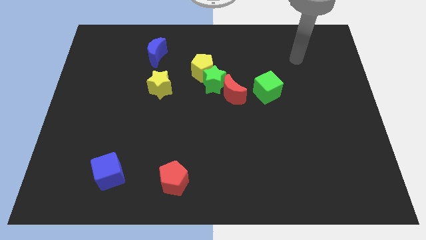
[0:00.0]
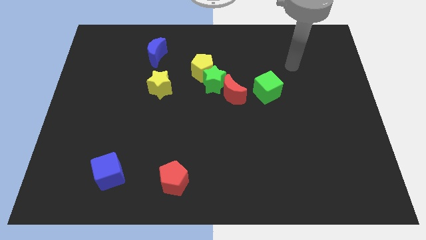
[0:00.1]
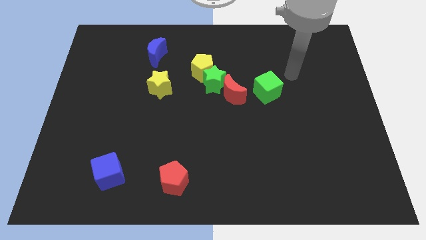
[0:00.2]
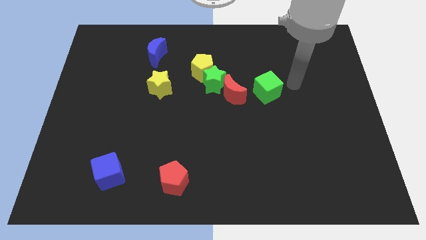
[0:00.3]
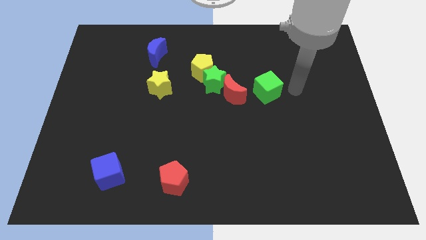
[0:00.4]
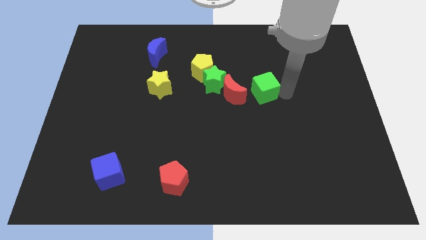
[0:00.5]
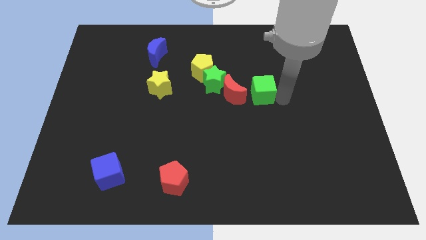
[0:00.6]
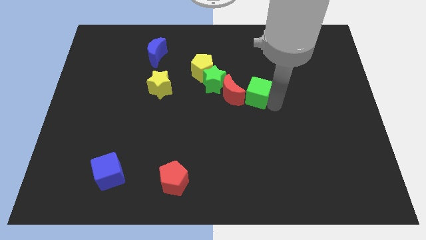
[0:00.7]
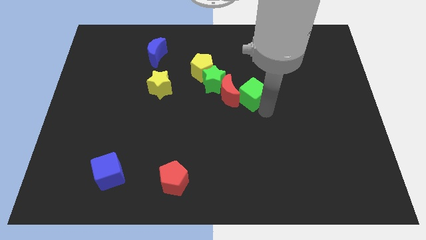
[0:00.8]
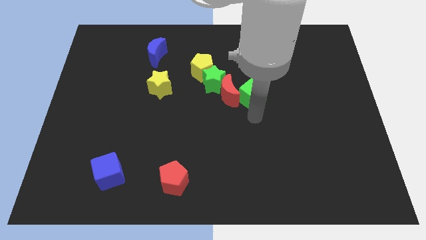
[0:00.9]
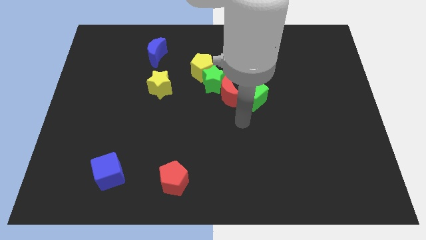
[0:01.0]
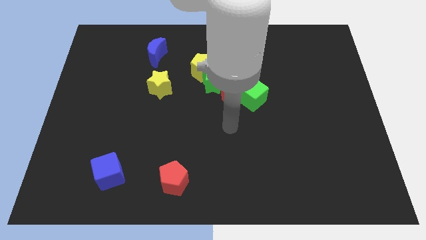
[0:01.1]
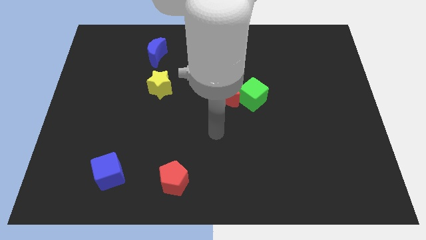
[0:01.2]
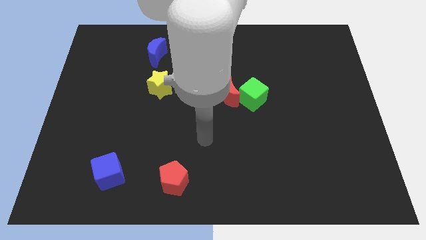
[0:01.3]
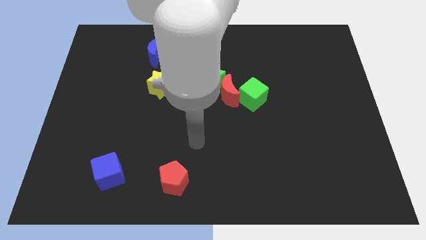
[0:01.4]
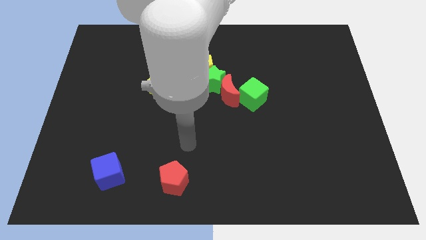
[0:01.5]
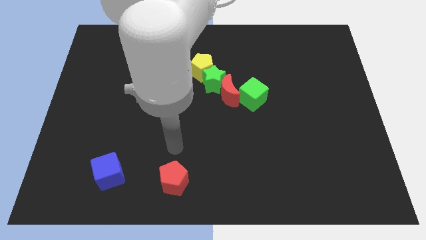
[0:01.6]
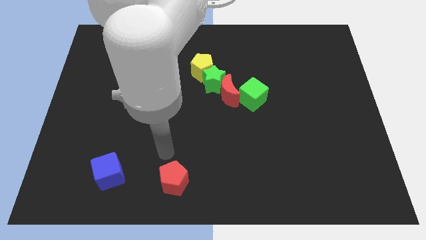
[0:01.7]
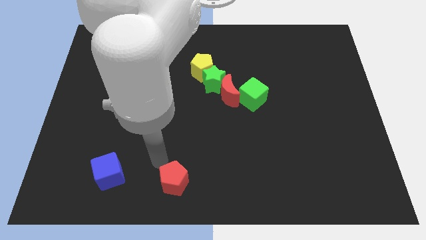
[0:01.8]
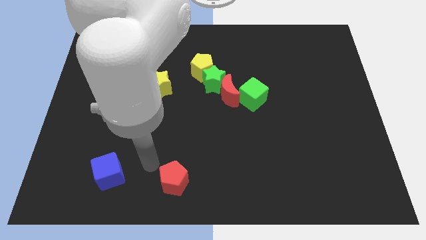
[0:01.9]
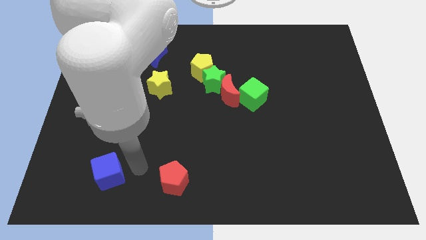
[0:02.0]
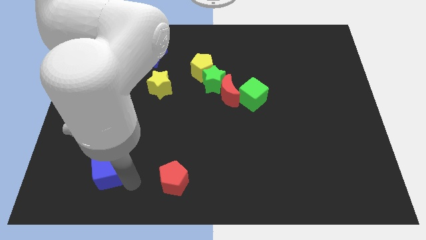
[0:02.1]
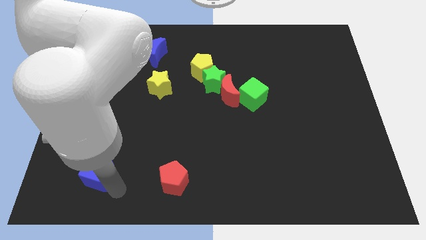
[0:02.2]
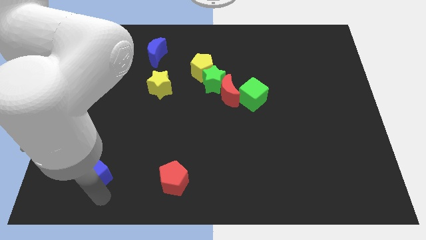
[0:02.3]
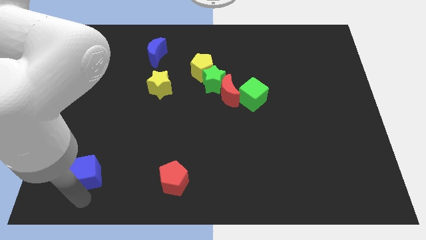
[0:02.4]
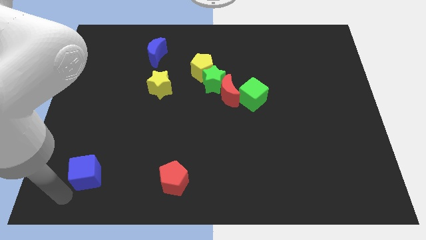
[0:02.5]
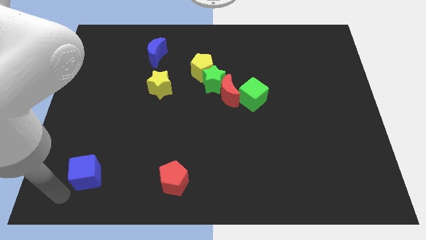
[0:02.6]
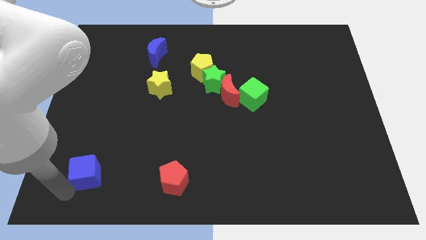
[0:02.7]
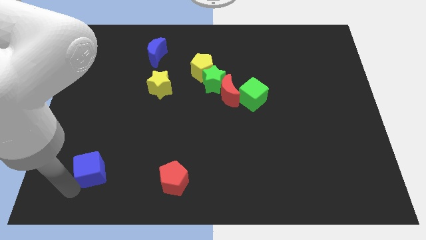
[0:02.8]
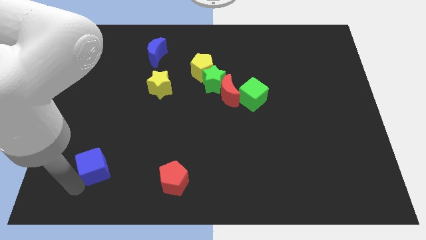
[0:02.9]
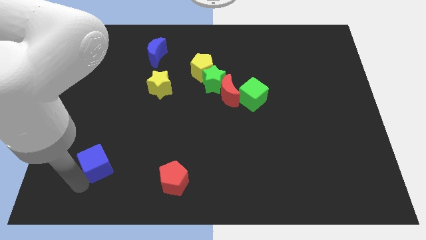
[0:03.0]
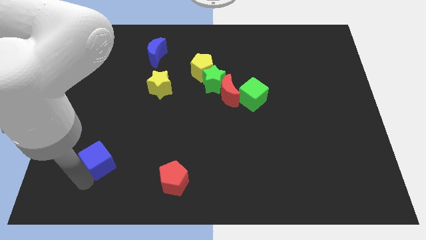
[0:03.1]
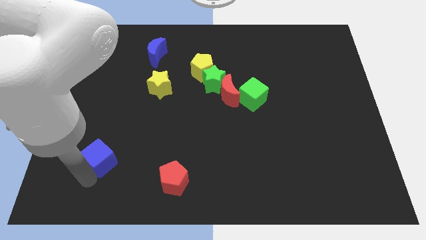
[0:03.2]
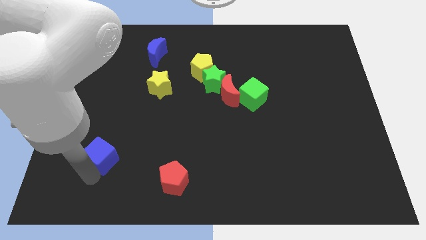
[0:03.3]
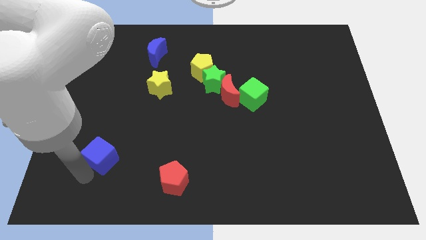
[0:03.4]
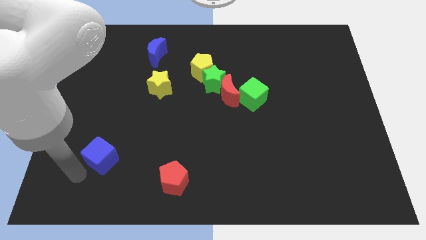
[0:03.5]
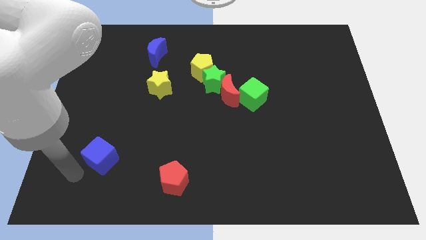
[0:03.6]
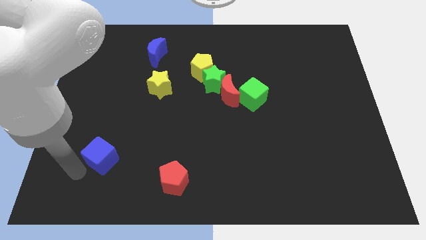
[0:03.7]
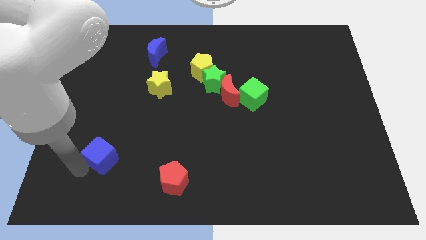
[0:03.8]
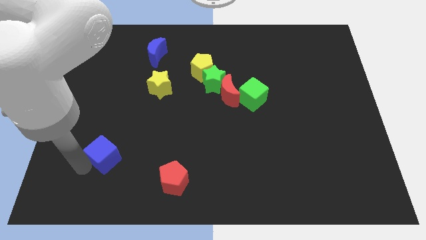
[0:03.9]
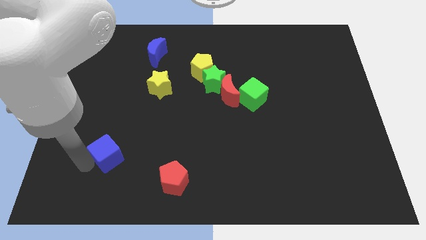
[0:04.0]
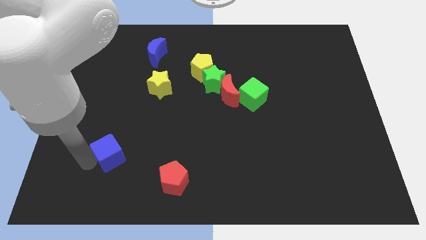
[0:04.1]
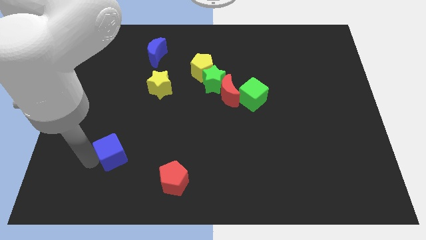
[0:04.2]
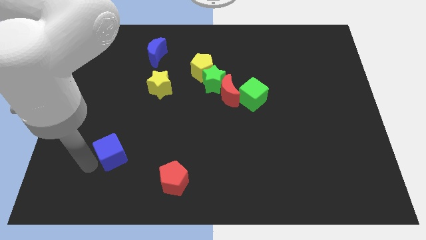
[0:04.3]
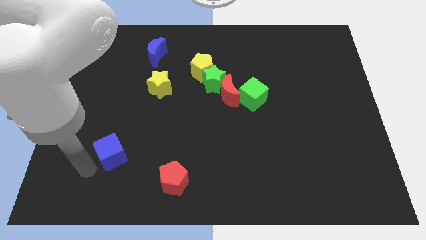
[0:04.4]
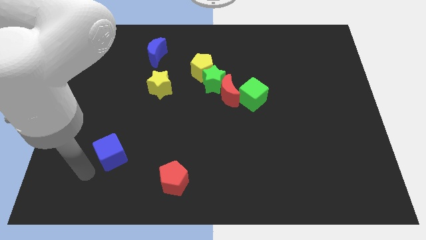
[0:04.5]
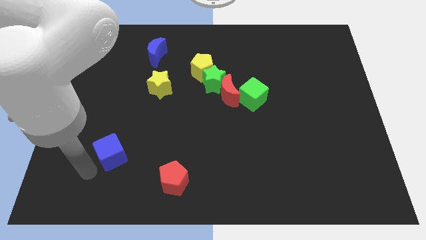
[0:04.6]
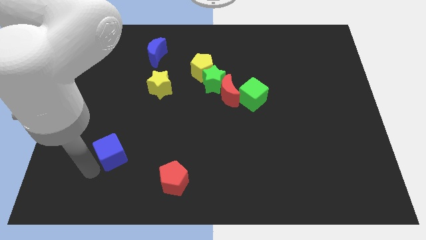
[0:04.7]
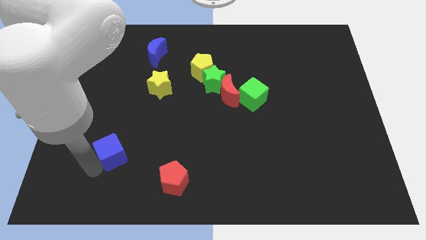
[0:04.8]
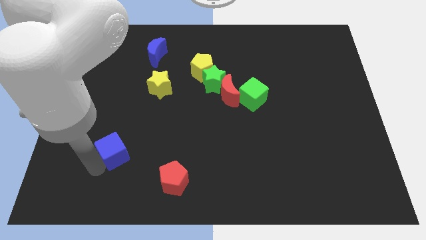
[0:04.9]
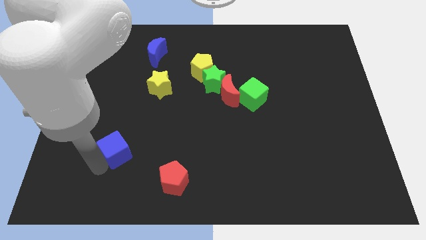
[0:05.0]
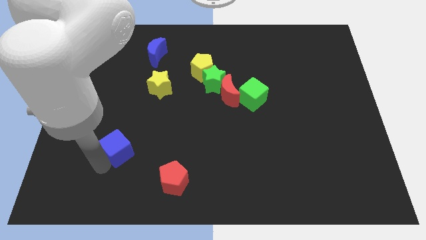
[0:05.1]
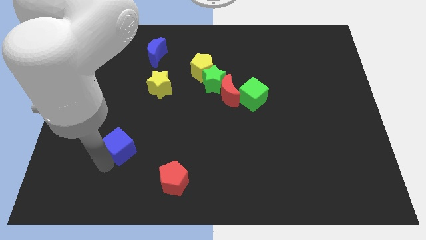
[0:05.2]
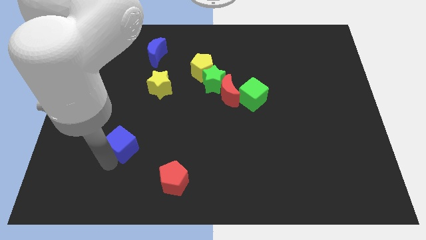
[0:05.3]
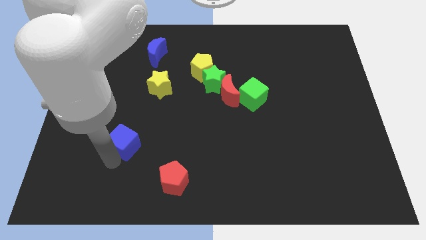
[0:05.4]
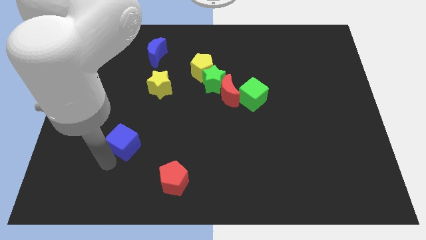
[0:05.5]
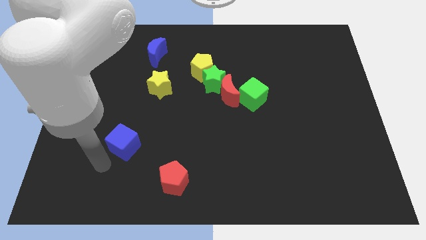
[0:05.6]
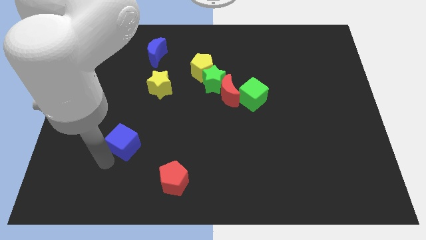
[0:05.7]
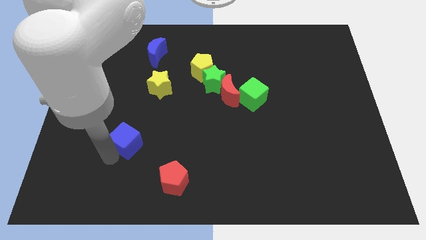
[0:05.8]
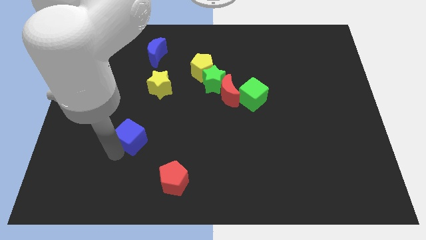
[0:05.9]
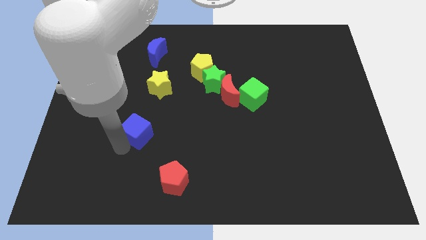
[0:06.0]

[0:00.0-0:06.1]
slide the blue cube to the bottom of the yellow star

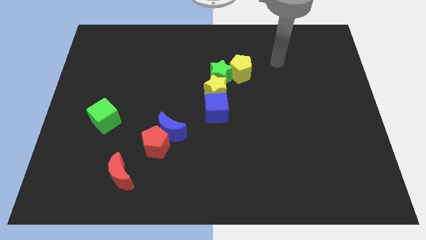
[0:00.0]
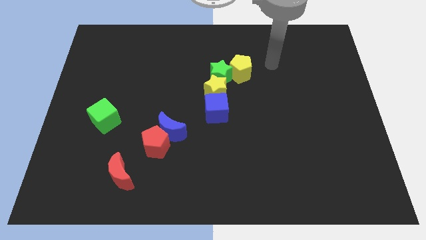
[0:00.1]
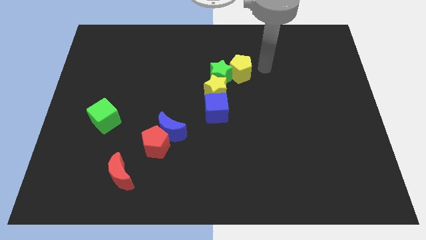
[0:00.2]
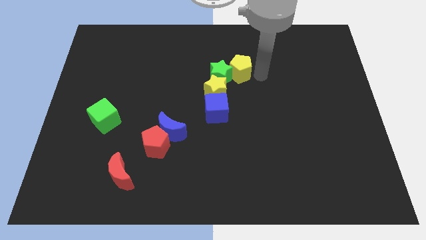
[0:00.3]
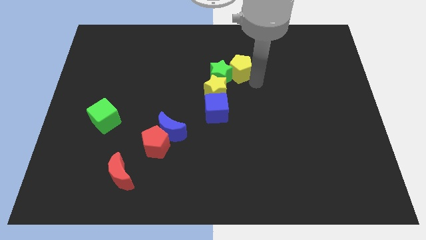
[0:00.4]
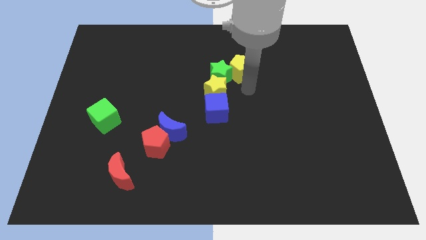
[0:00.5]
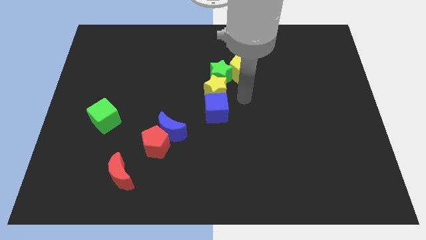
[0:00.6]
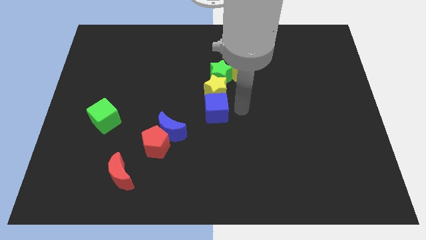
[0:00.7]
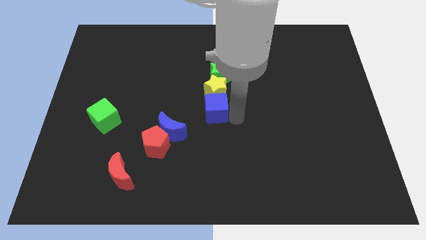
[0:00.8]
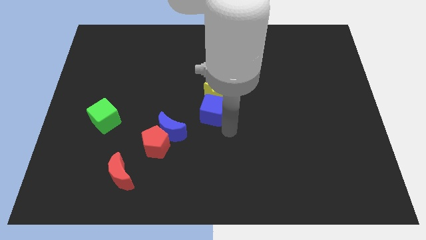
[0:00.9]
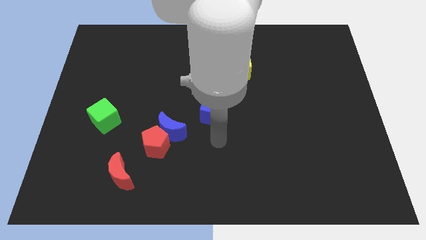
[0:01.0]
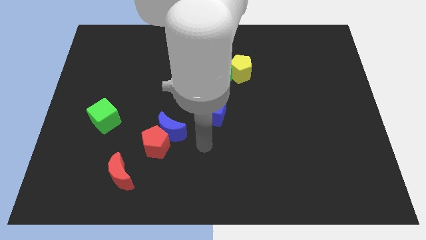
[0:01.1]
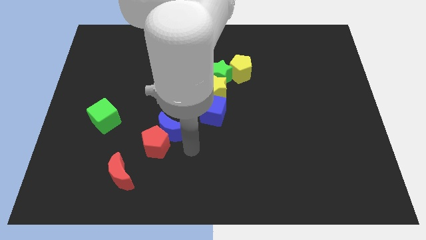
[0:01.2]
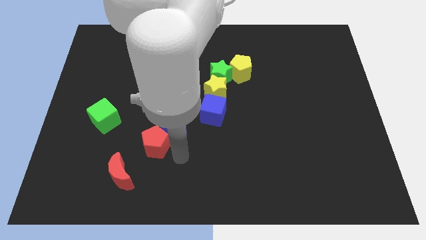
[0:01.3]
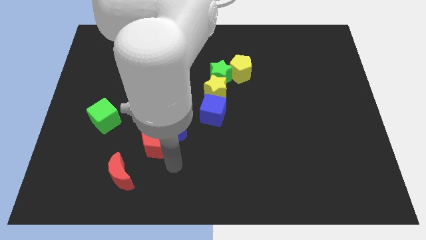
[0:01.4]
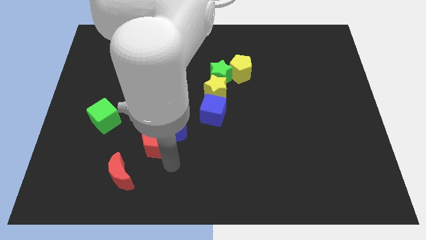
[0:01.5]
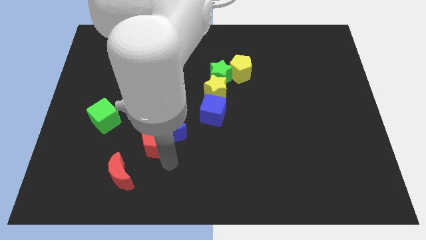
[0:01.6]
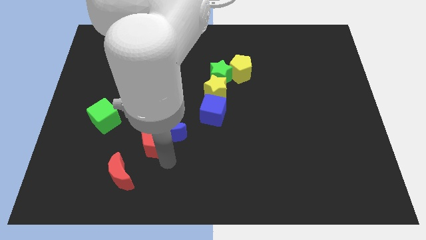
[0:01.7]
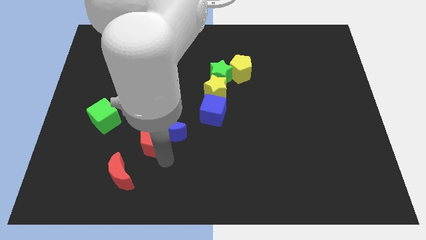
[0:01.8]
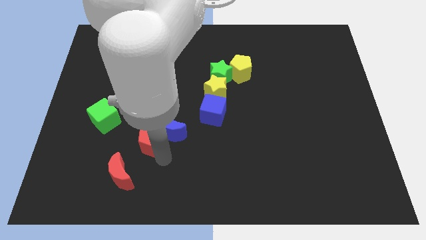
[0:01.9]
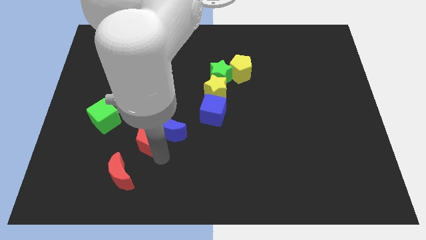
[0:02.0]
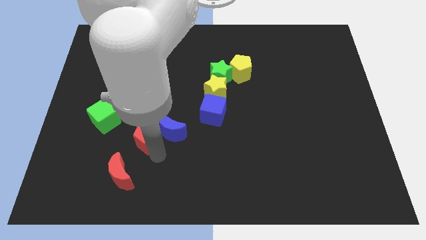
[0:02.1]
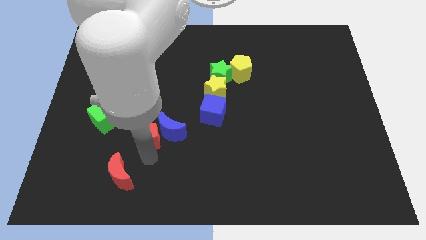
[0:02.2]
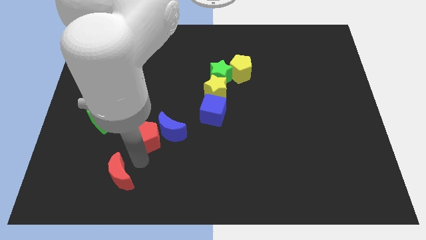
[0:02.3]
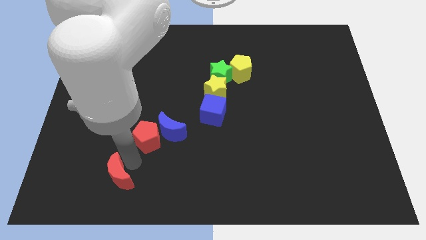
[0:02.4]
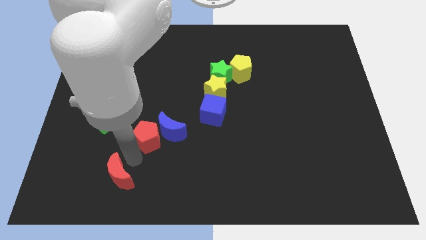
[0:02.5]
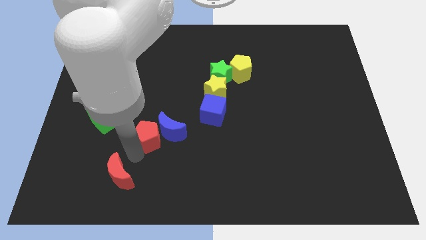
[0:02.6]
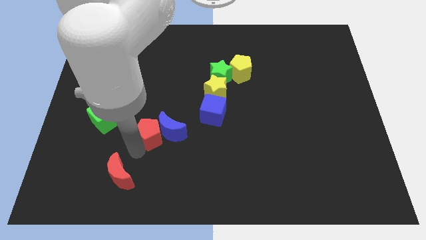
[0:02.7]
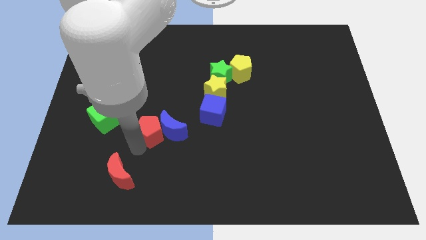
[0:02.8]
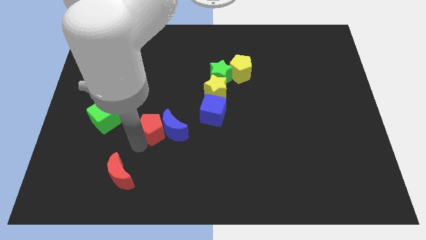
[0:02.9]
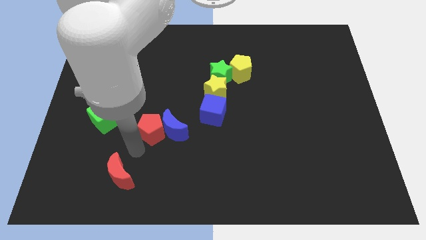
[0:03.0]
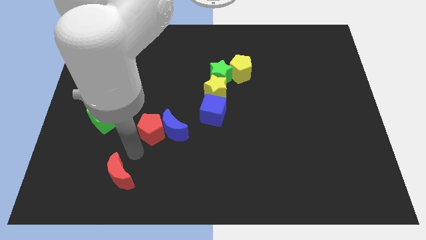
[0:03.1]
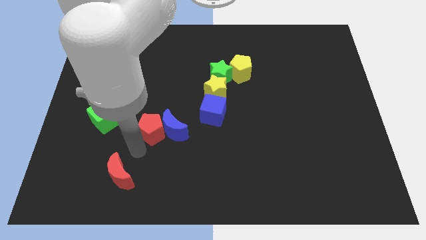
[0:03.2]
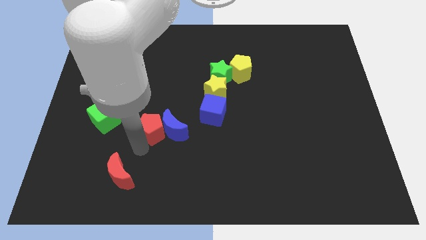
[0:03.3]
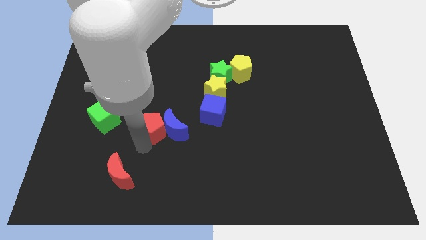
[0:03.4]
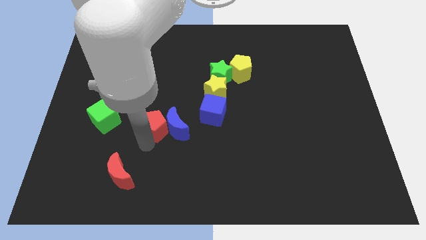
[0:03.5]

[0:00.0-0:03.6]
put the red pentagon left of the blue cube
